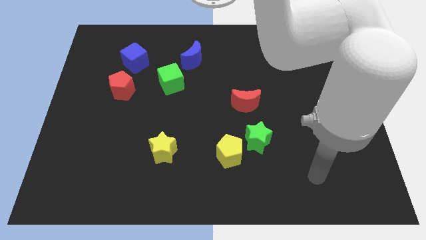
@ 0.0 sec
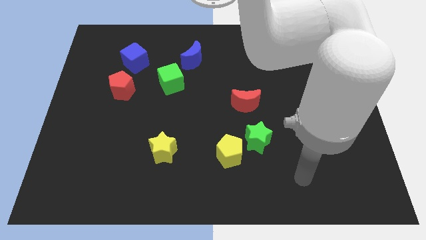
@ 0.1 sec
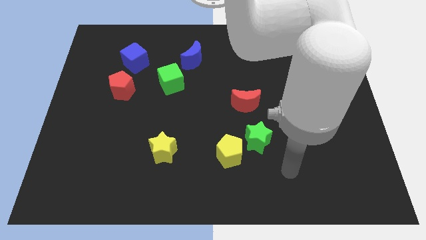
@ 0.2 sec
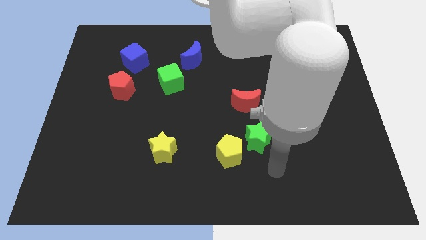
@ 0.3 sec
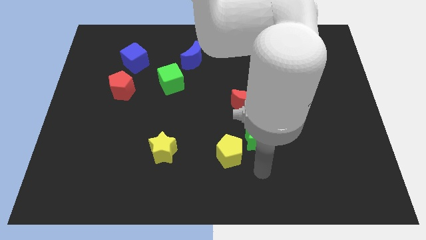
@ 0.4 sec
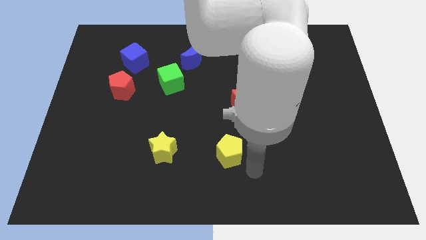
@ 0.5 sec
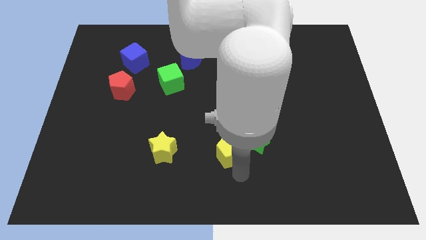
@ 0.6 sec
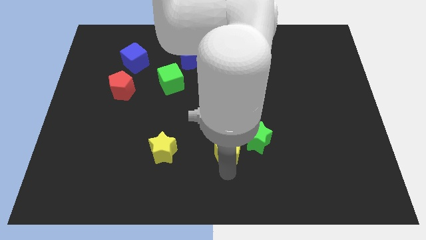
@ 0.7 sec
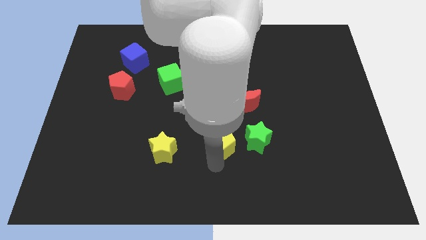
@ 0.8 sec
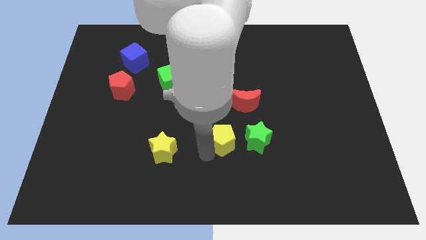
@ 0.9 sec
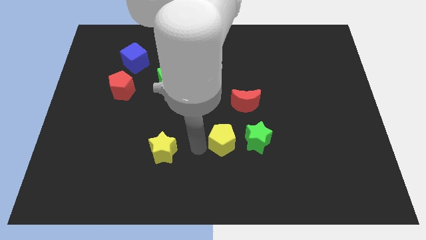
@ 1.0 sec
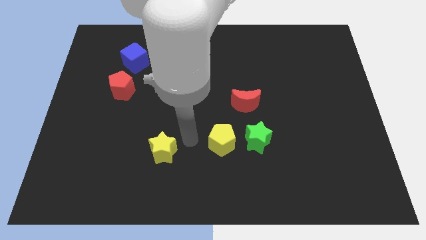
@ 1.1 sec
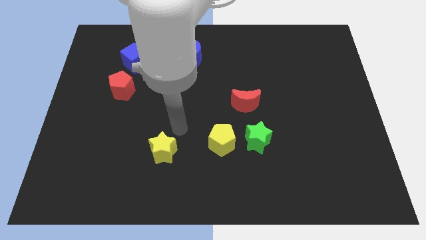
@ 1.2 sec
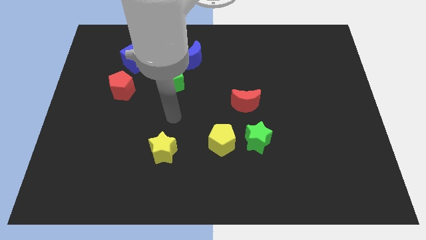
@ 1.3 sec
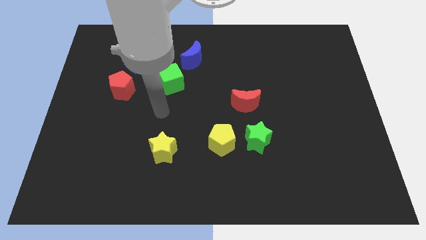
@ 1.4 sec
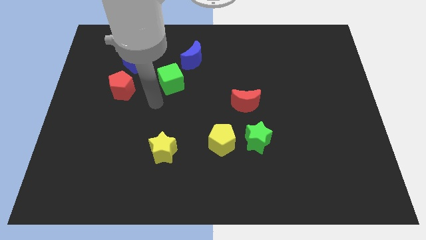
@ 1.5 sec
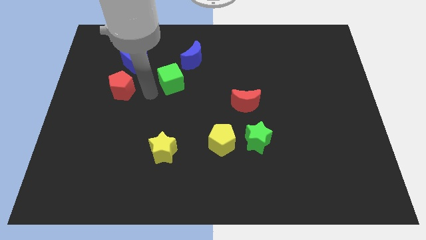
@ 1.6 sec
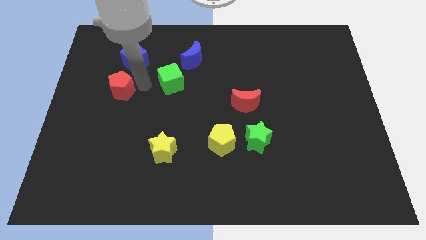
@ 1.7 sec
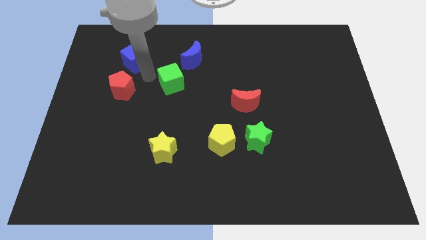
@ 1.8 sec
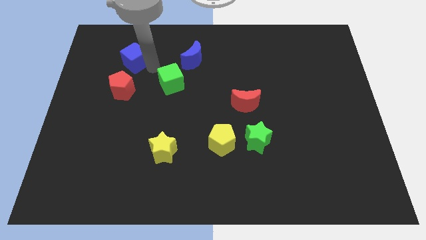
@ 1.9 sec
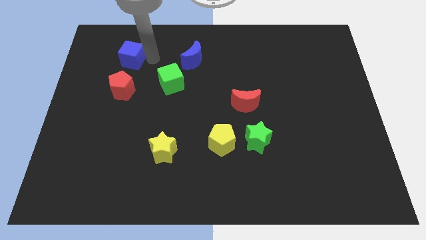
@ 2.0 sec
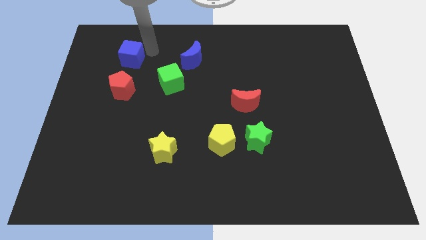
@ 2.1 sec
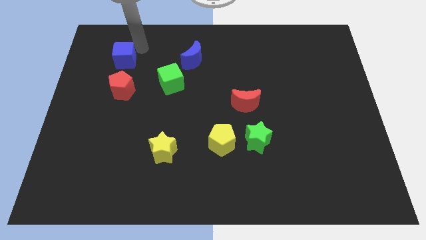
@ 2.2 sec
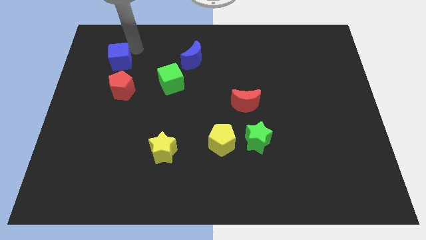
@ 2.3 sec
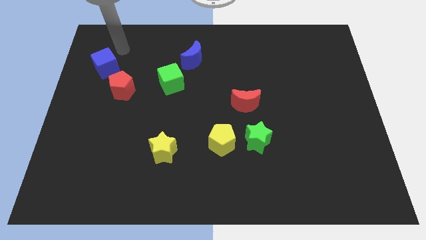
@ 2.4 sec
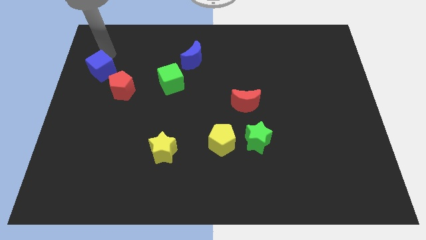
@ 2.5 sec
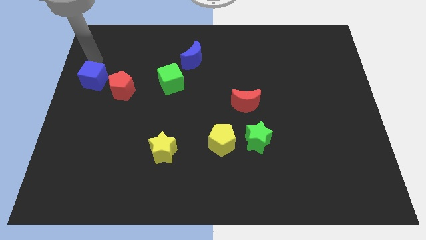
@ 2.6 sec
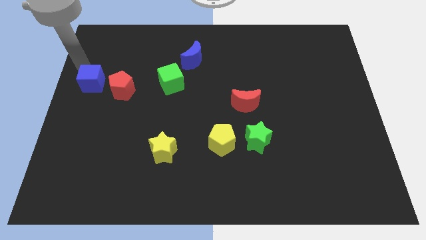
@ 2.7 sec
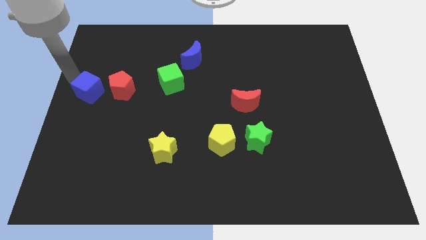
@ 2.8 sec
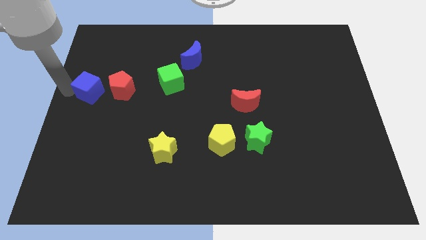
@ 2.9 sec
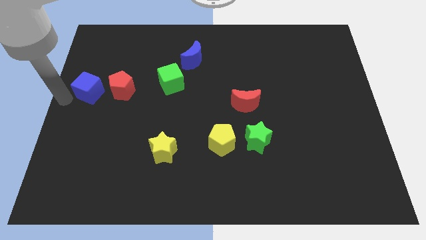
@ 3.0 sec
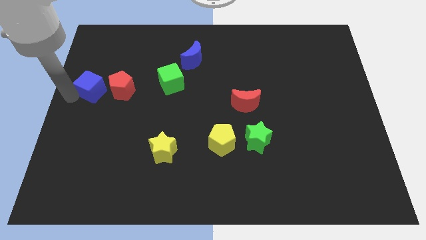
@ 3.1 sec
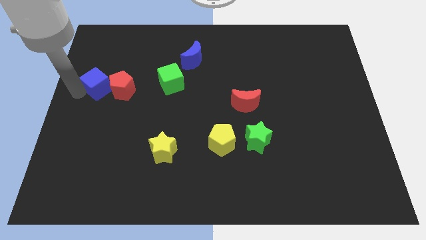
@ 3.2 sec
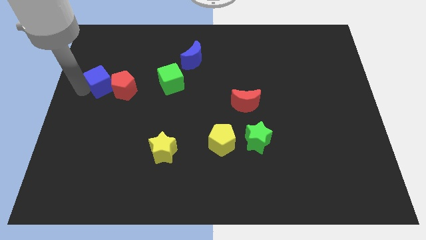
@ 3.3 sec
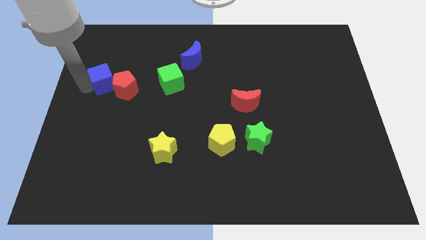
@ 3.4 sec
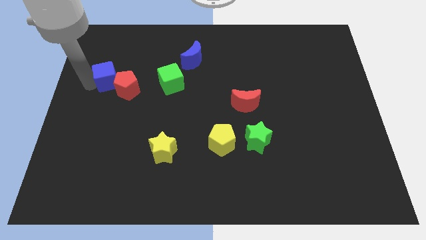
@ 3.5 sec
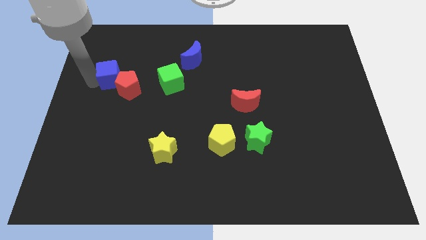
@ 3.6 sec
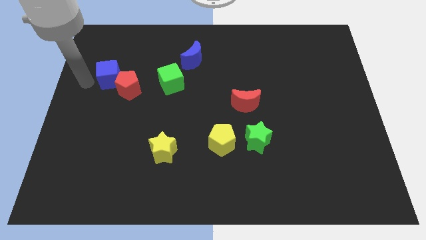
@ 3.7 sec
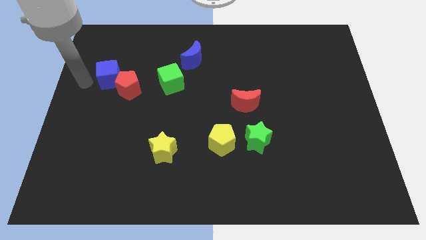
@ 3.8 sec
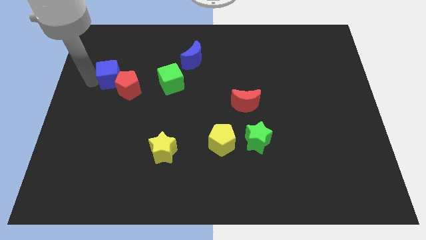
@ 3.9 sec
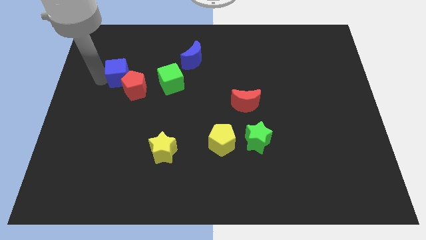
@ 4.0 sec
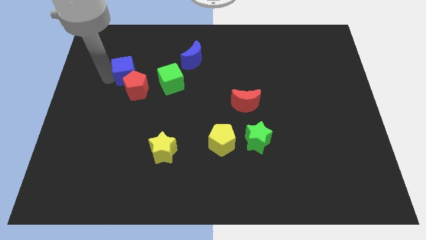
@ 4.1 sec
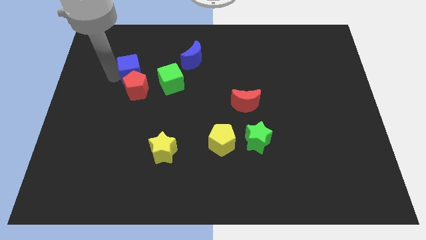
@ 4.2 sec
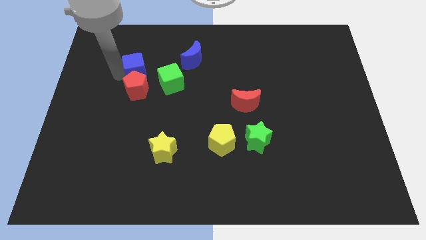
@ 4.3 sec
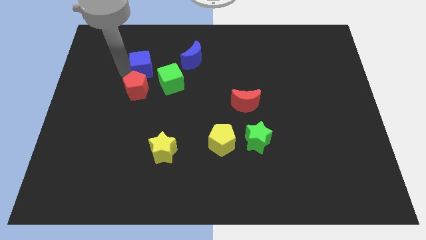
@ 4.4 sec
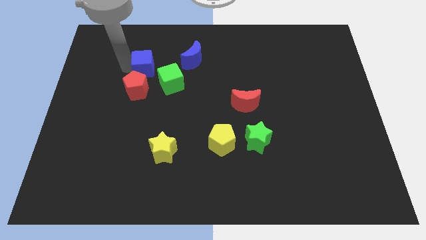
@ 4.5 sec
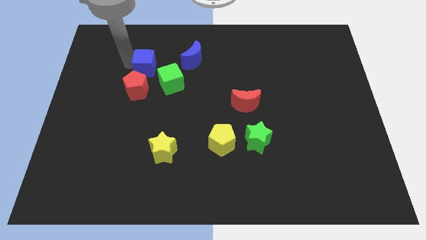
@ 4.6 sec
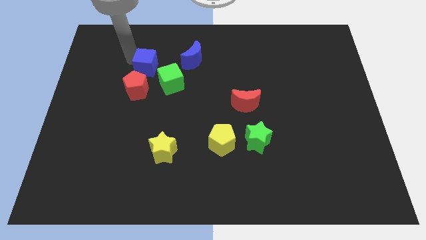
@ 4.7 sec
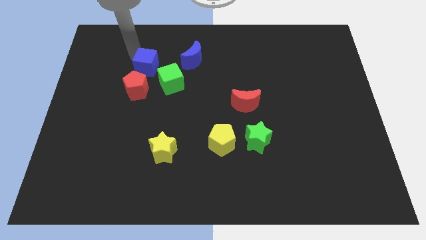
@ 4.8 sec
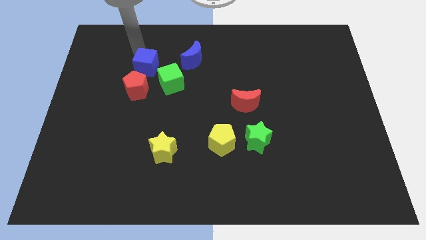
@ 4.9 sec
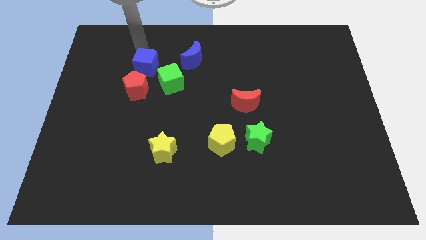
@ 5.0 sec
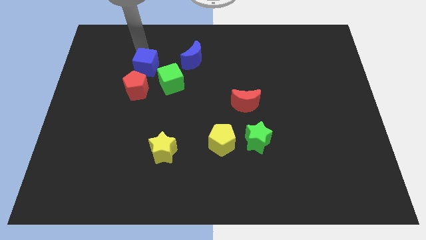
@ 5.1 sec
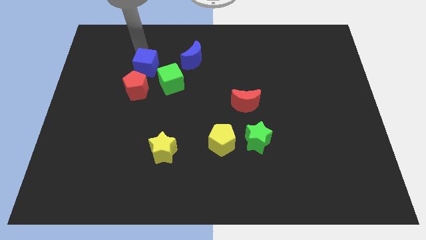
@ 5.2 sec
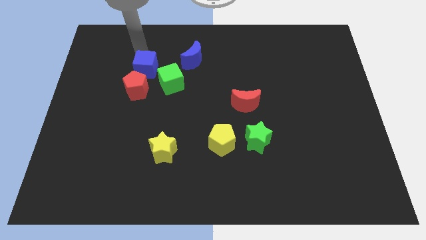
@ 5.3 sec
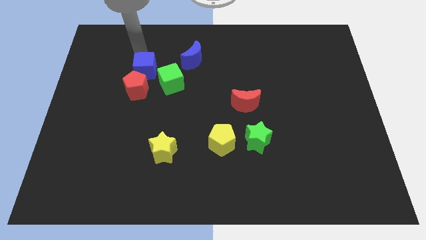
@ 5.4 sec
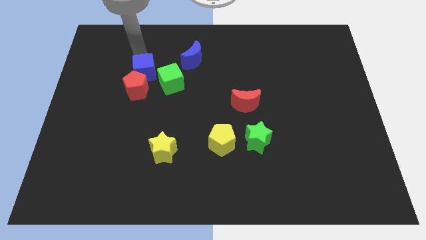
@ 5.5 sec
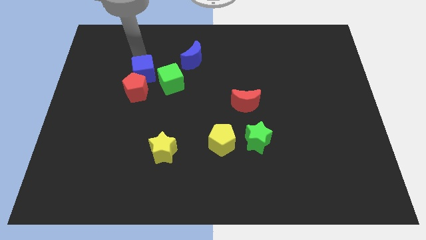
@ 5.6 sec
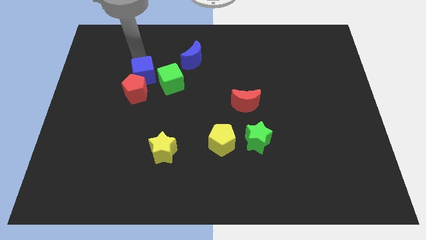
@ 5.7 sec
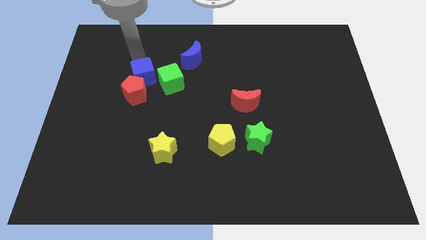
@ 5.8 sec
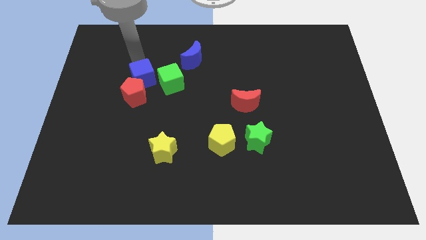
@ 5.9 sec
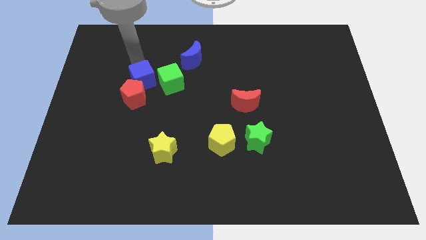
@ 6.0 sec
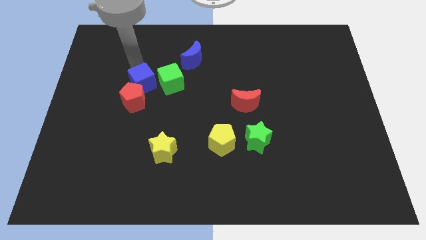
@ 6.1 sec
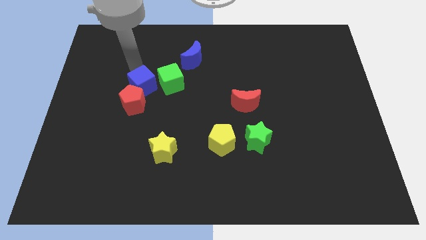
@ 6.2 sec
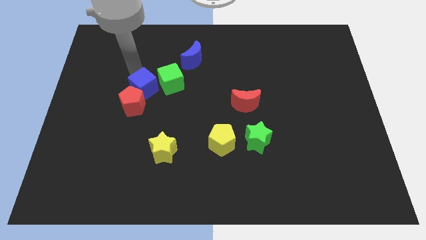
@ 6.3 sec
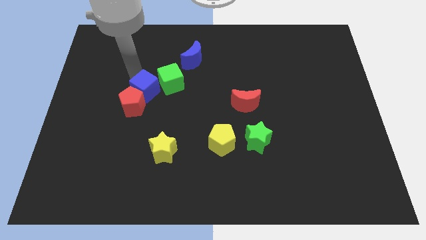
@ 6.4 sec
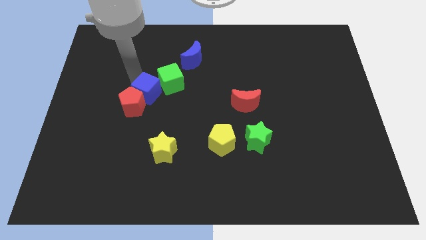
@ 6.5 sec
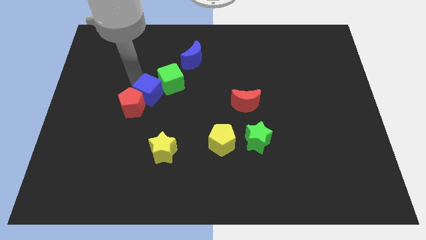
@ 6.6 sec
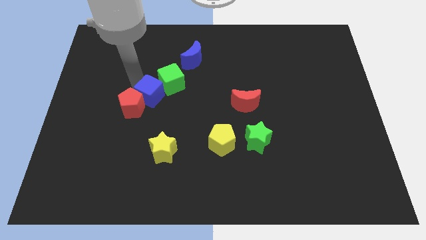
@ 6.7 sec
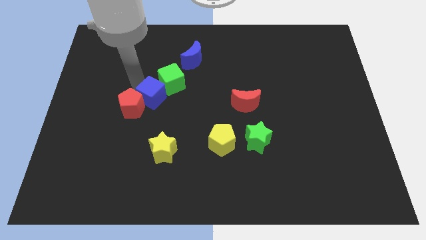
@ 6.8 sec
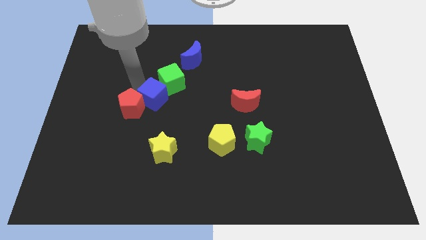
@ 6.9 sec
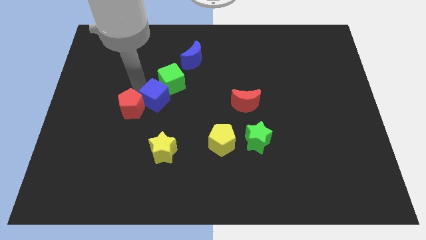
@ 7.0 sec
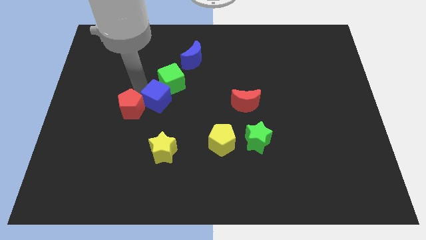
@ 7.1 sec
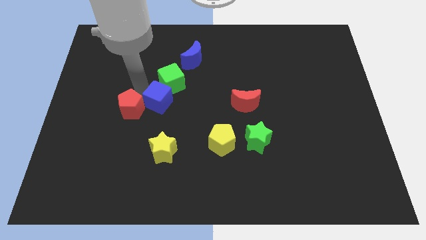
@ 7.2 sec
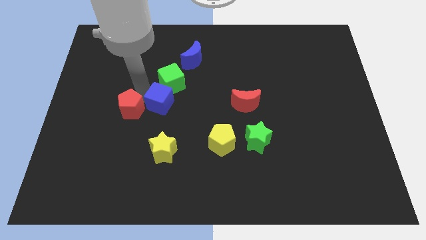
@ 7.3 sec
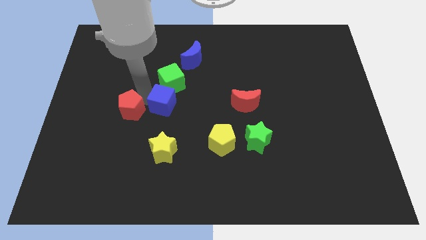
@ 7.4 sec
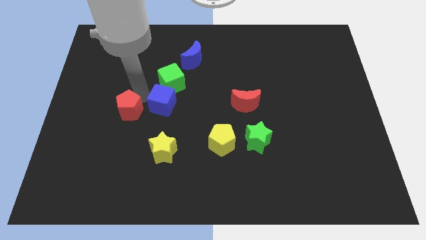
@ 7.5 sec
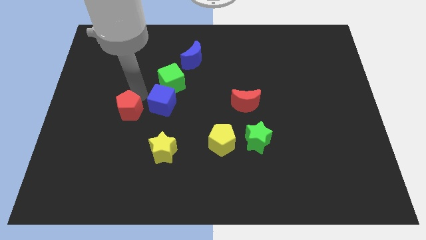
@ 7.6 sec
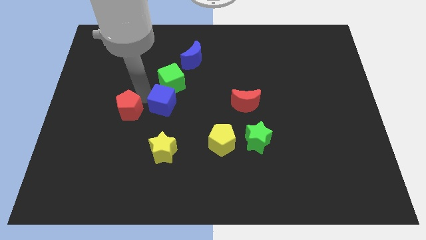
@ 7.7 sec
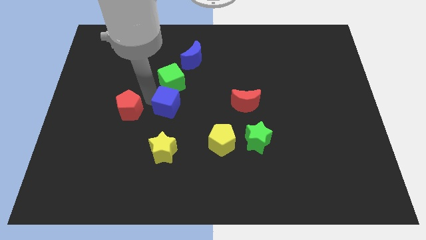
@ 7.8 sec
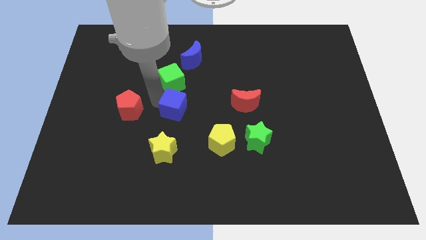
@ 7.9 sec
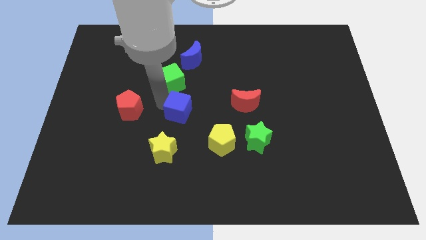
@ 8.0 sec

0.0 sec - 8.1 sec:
move the blue cube downwards and right
